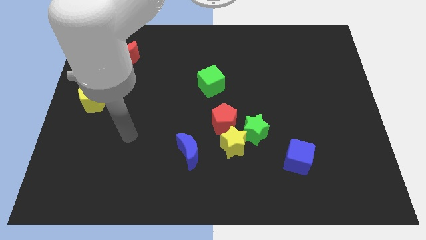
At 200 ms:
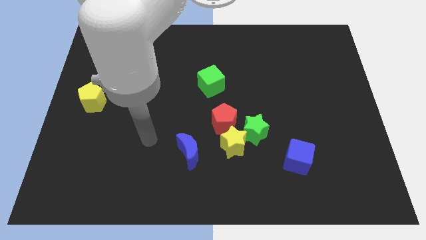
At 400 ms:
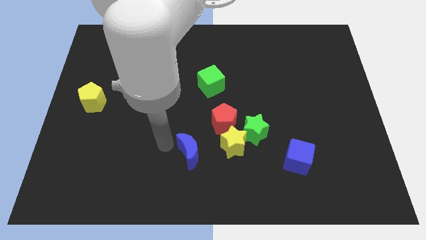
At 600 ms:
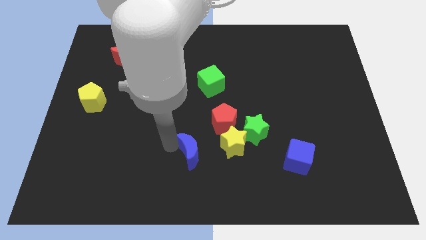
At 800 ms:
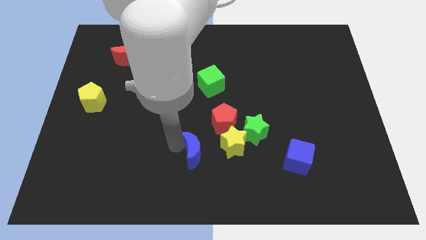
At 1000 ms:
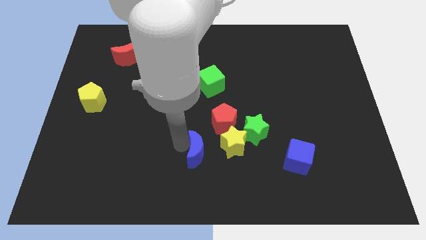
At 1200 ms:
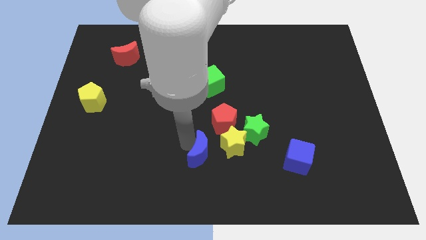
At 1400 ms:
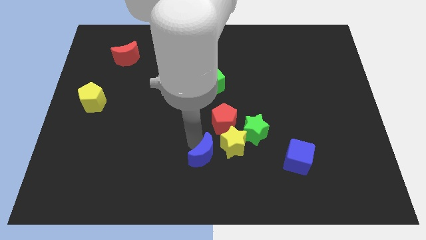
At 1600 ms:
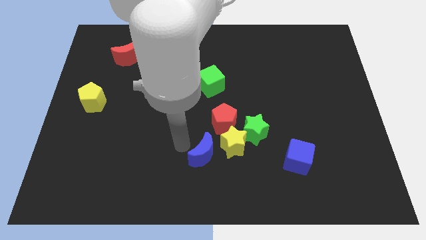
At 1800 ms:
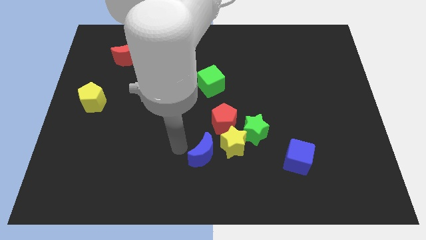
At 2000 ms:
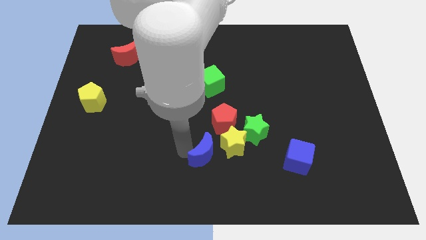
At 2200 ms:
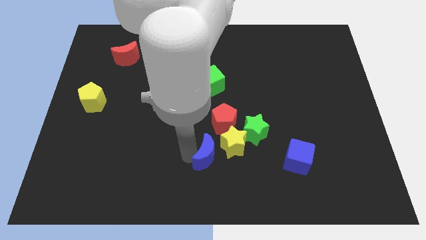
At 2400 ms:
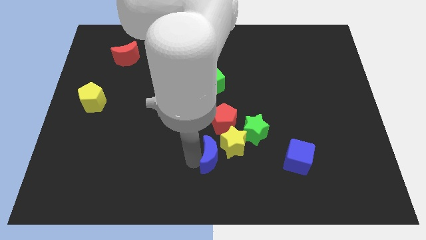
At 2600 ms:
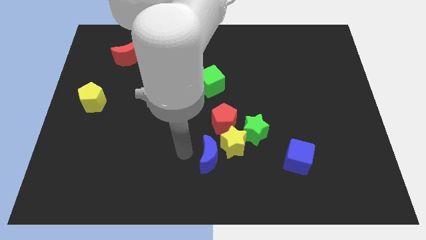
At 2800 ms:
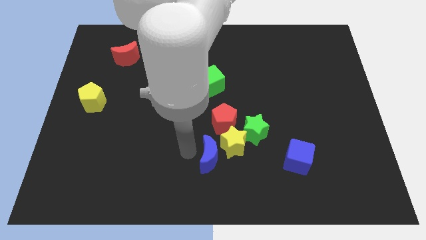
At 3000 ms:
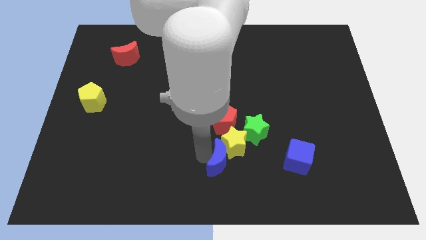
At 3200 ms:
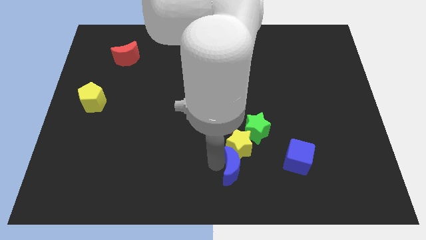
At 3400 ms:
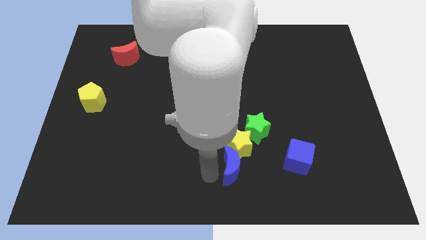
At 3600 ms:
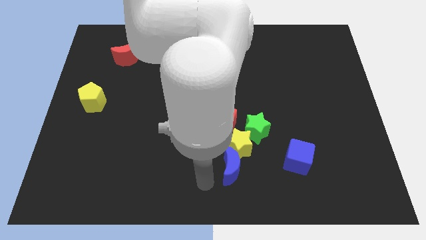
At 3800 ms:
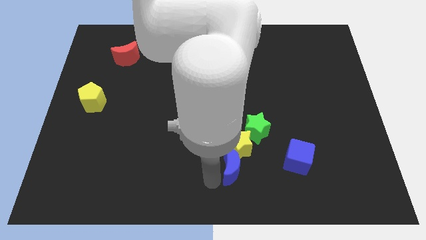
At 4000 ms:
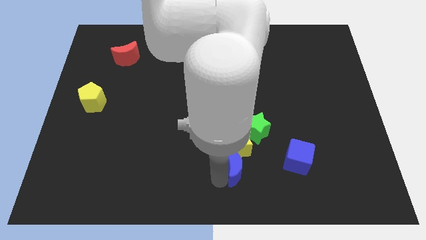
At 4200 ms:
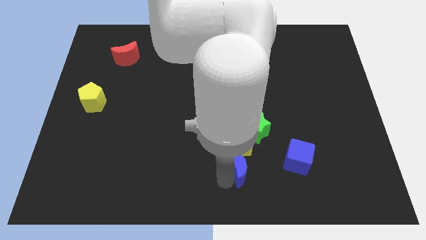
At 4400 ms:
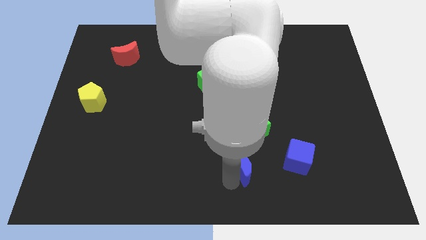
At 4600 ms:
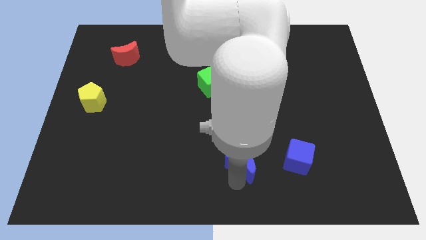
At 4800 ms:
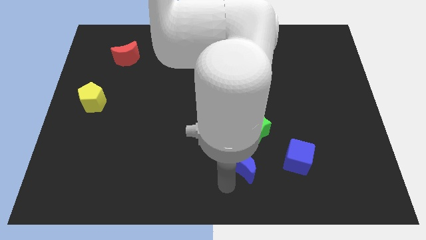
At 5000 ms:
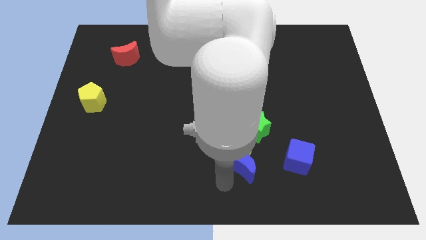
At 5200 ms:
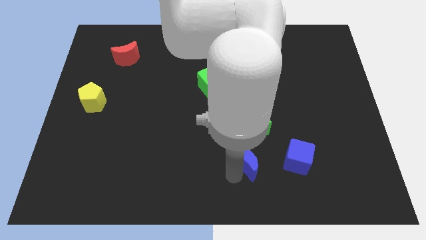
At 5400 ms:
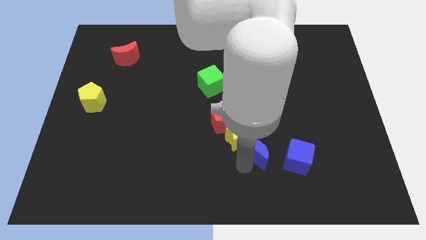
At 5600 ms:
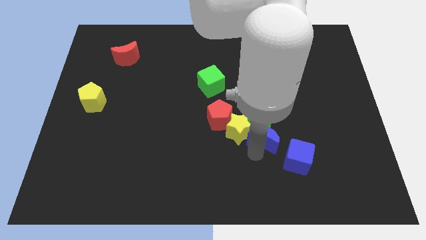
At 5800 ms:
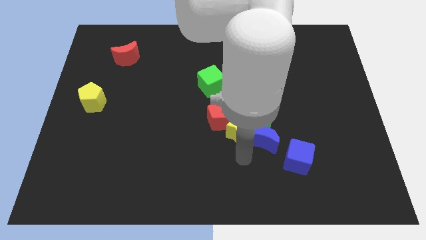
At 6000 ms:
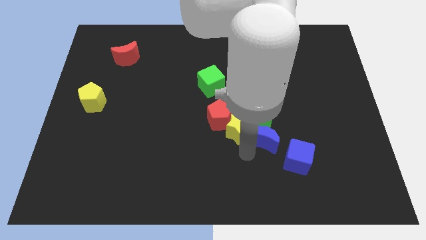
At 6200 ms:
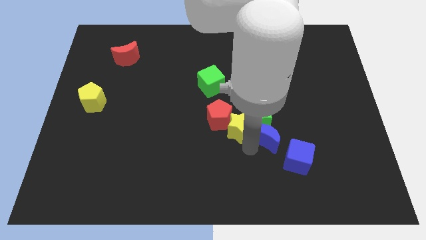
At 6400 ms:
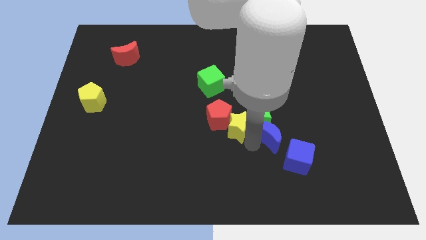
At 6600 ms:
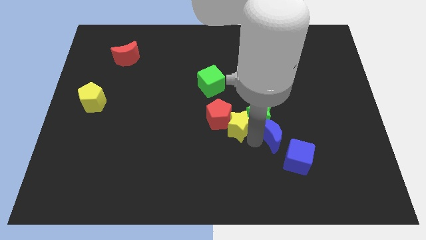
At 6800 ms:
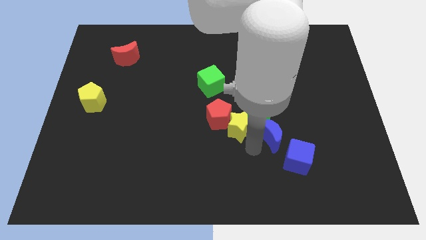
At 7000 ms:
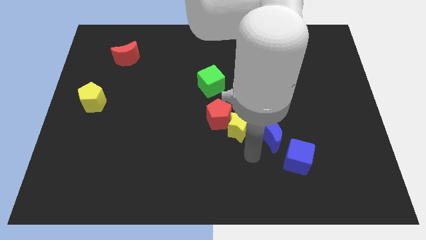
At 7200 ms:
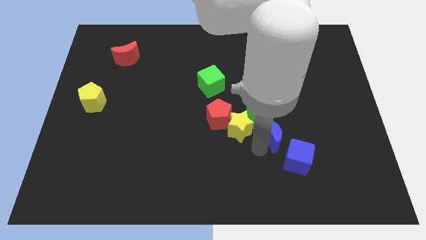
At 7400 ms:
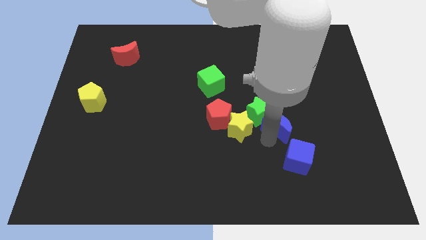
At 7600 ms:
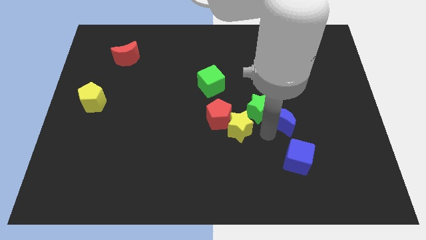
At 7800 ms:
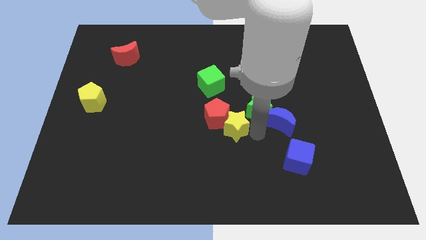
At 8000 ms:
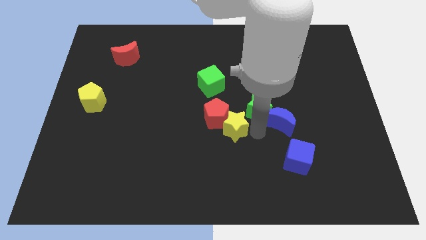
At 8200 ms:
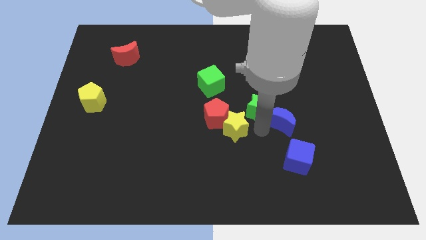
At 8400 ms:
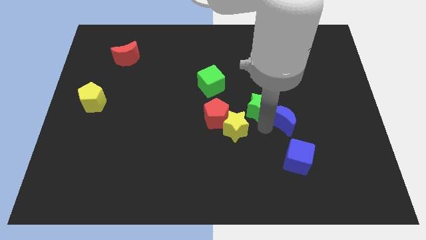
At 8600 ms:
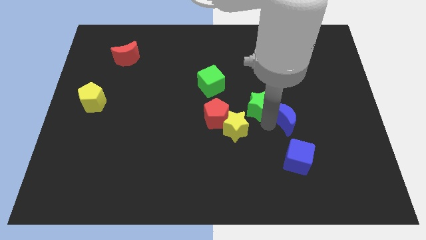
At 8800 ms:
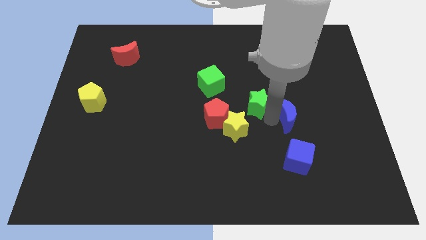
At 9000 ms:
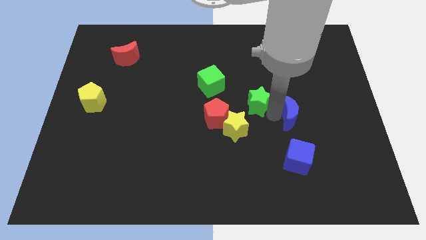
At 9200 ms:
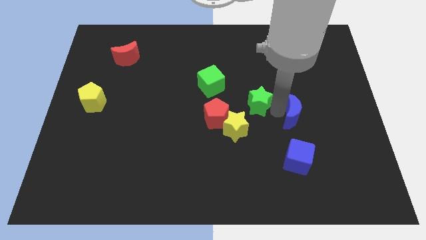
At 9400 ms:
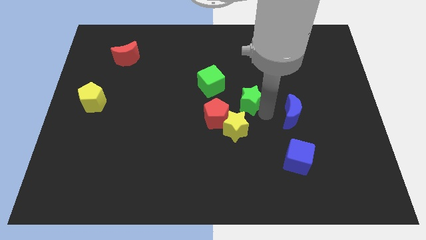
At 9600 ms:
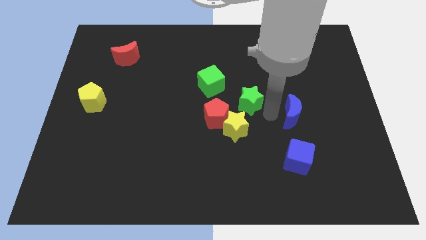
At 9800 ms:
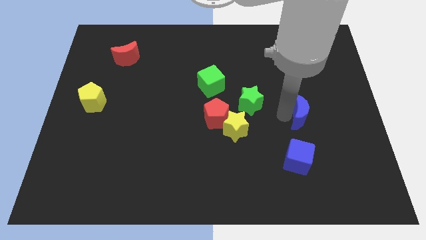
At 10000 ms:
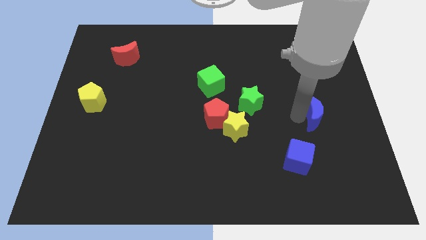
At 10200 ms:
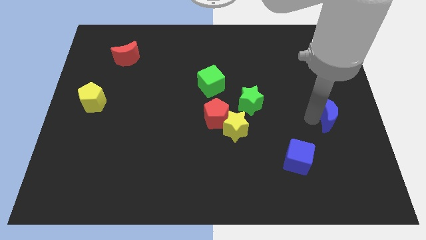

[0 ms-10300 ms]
push the blue moon to the right side

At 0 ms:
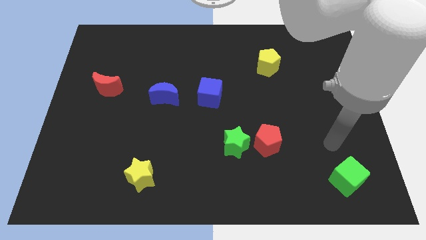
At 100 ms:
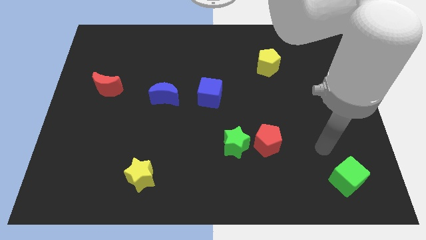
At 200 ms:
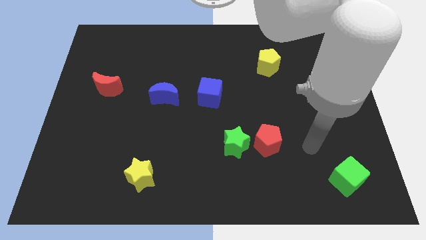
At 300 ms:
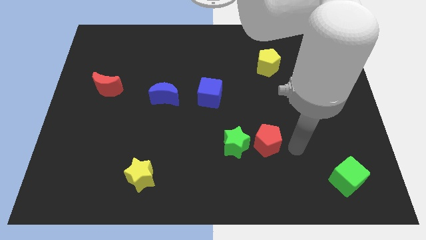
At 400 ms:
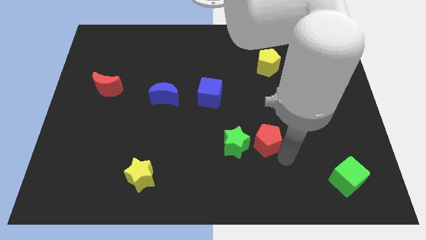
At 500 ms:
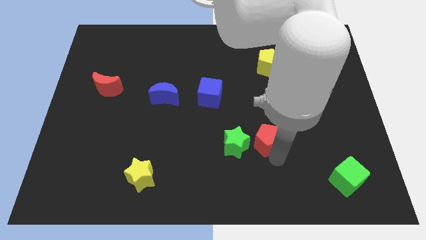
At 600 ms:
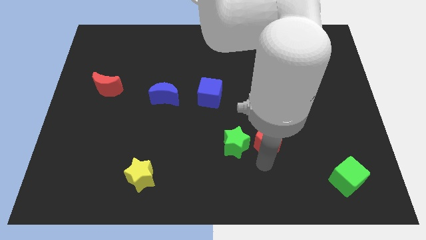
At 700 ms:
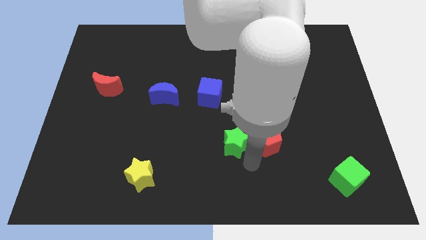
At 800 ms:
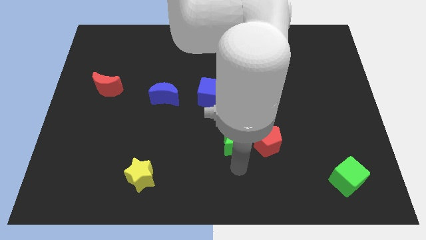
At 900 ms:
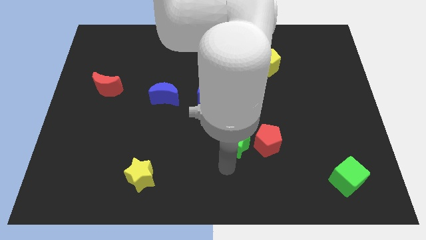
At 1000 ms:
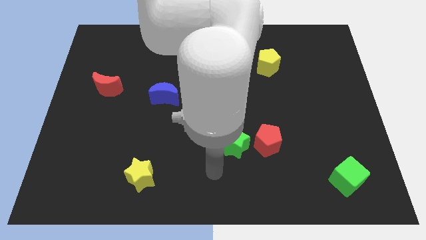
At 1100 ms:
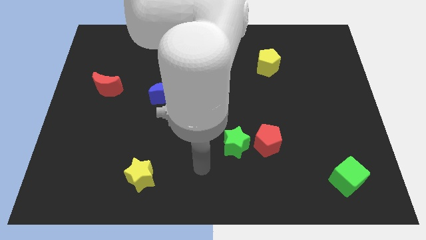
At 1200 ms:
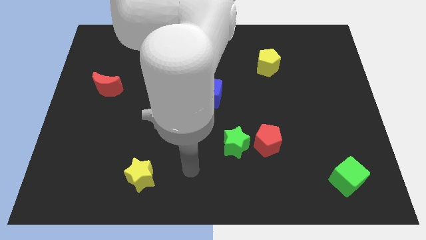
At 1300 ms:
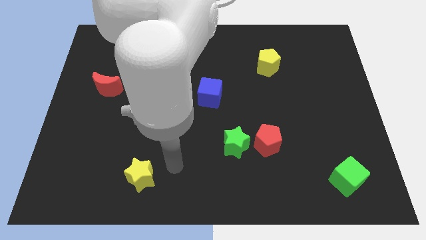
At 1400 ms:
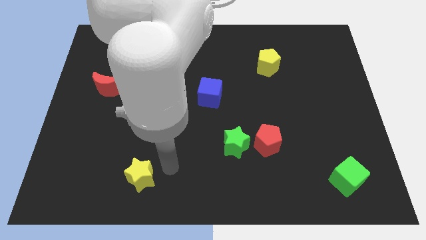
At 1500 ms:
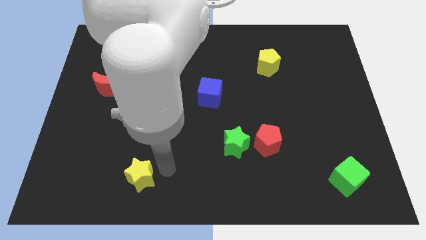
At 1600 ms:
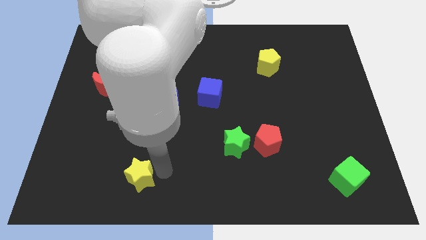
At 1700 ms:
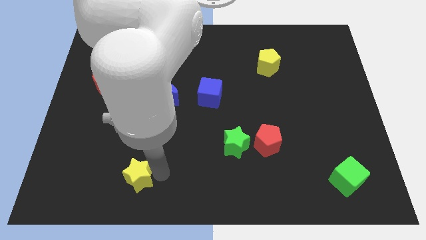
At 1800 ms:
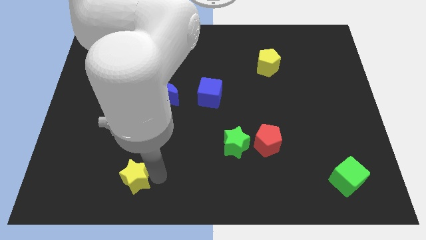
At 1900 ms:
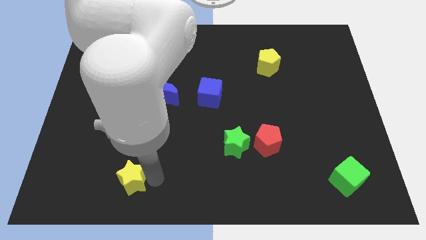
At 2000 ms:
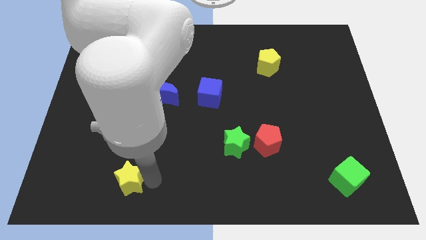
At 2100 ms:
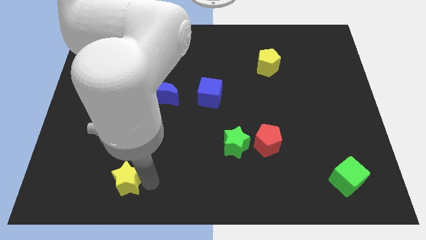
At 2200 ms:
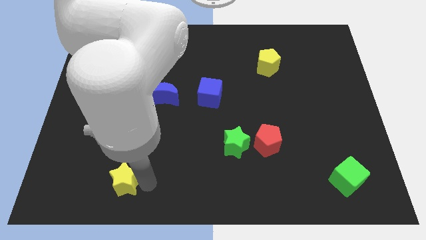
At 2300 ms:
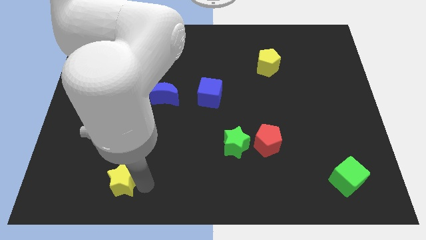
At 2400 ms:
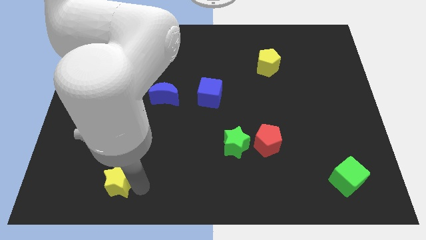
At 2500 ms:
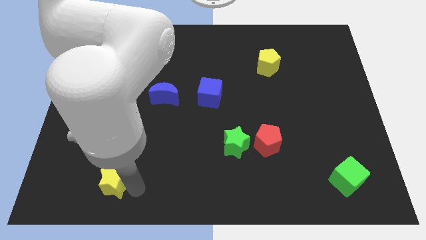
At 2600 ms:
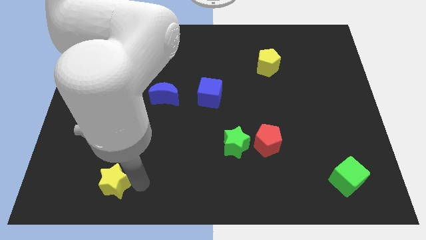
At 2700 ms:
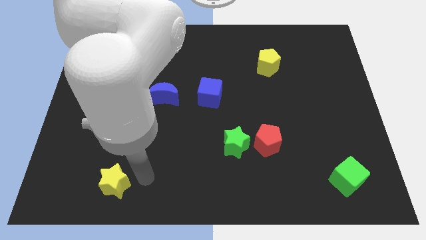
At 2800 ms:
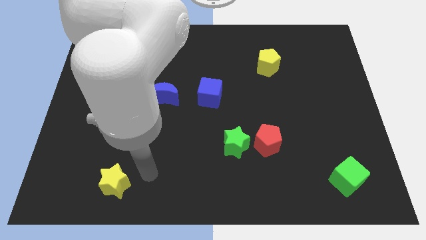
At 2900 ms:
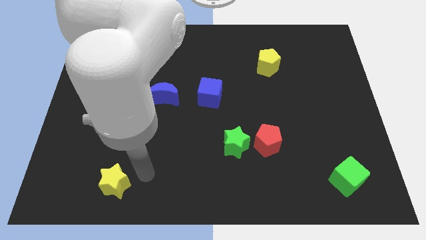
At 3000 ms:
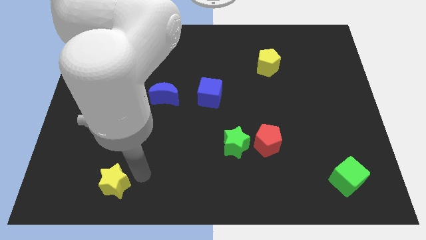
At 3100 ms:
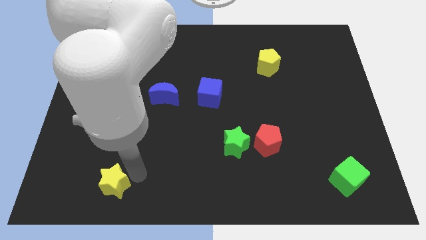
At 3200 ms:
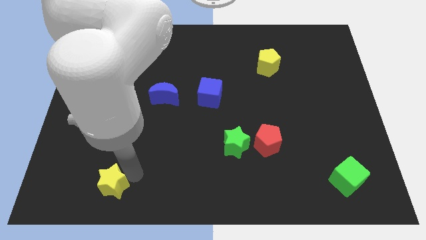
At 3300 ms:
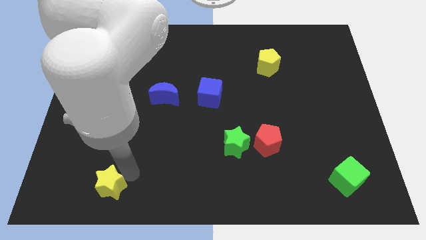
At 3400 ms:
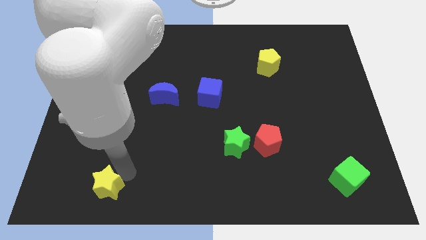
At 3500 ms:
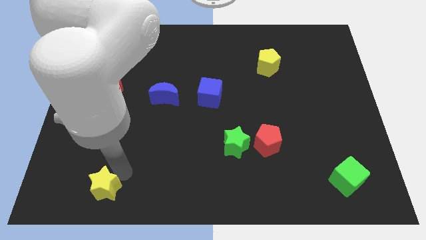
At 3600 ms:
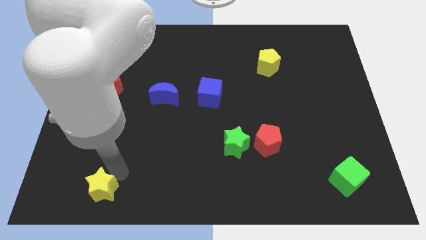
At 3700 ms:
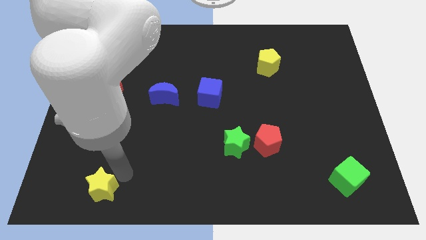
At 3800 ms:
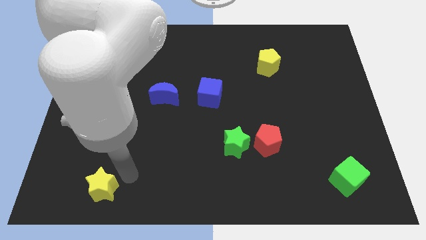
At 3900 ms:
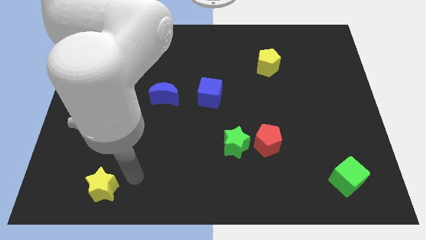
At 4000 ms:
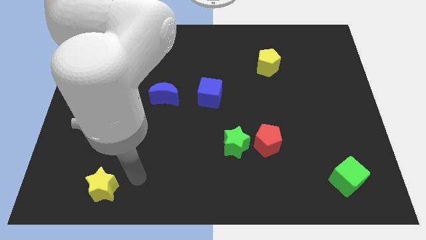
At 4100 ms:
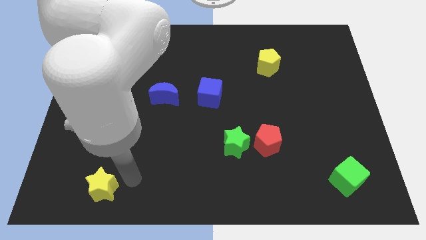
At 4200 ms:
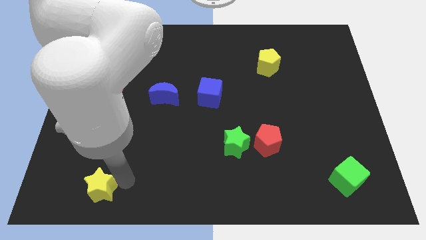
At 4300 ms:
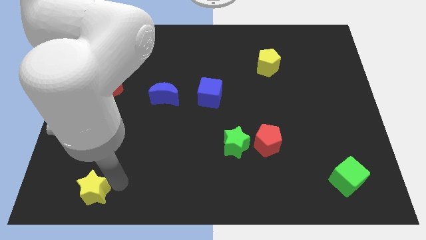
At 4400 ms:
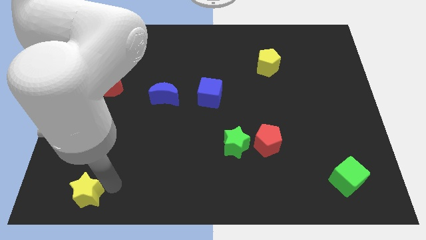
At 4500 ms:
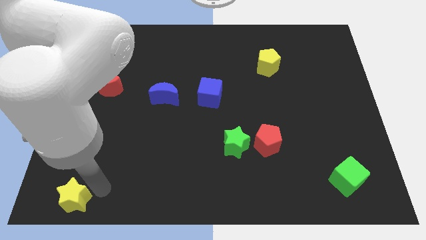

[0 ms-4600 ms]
put the yellow star to the bottom left of the board
